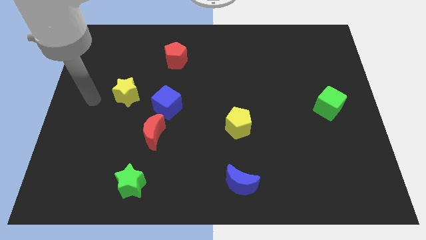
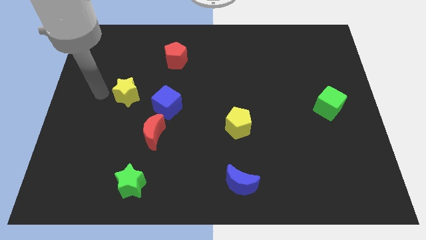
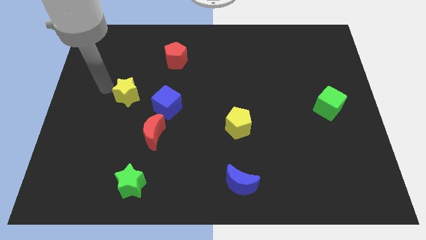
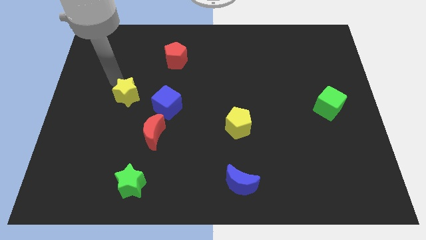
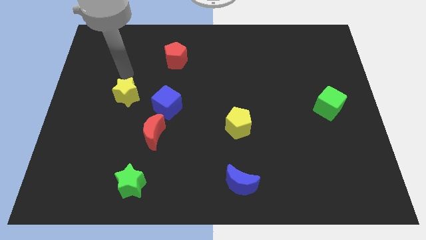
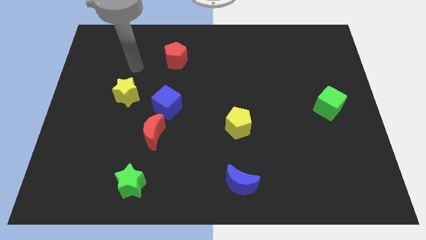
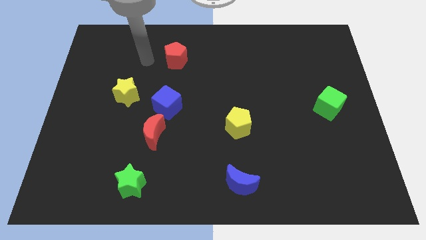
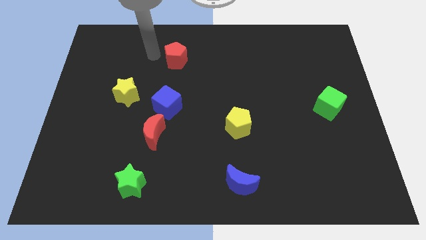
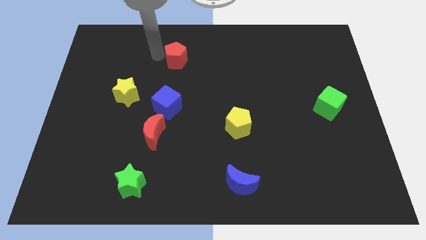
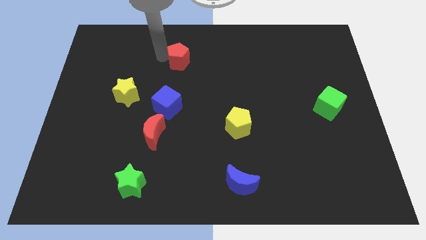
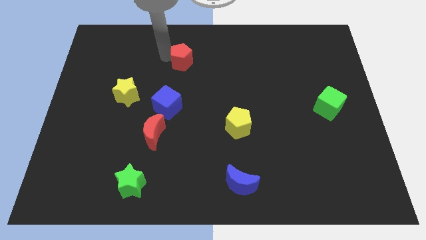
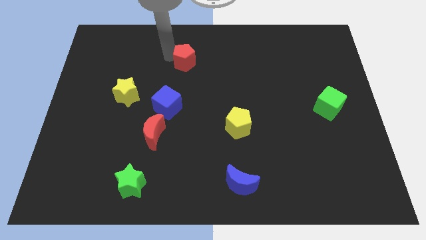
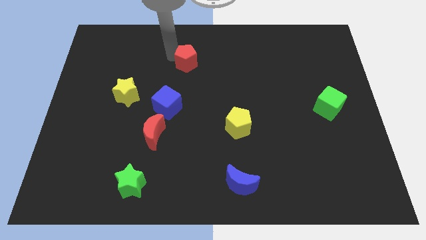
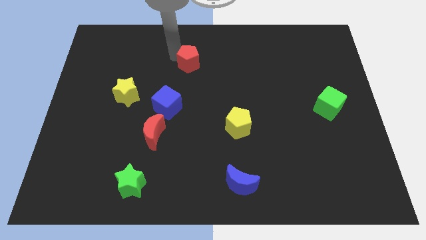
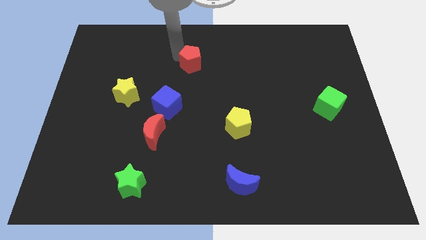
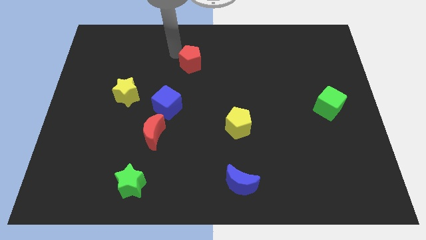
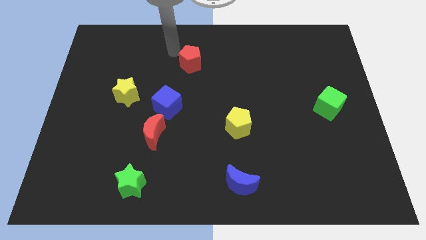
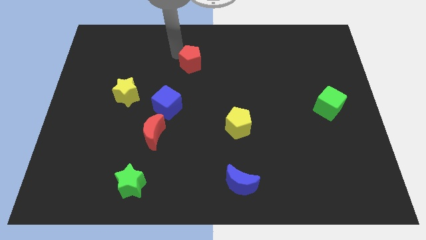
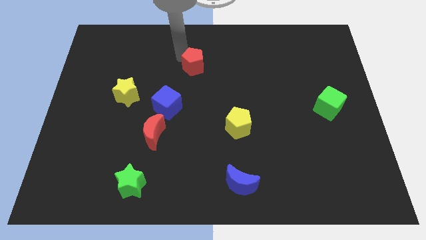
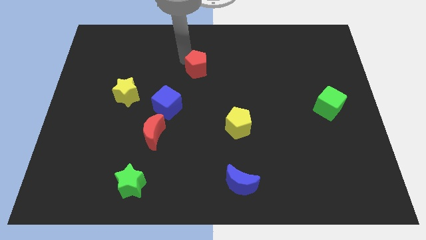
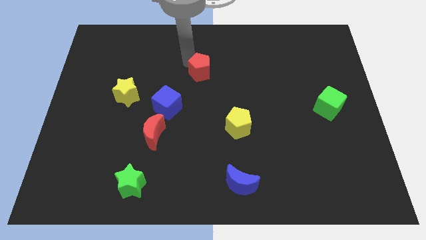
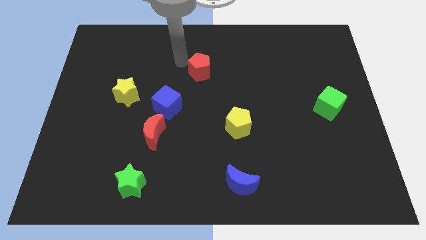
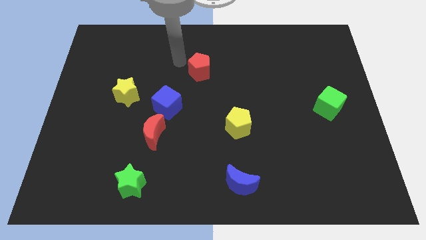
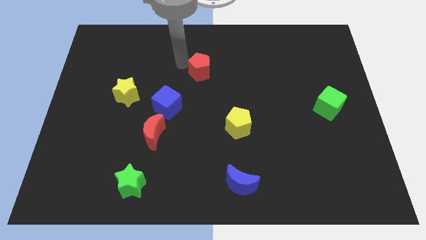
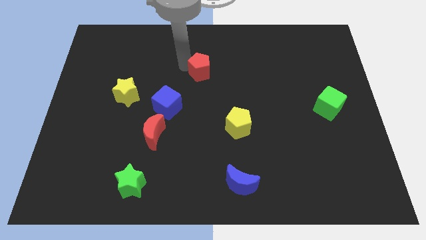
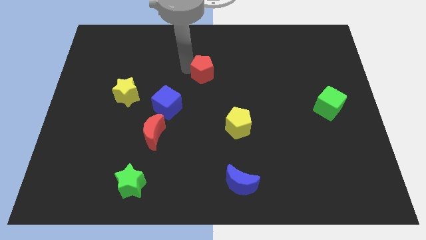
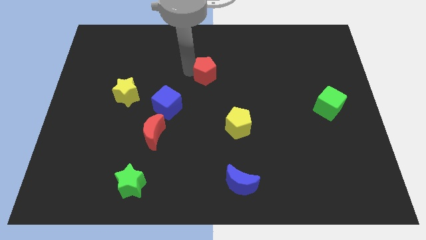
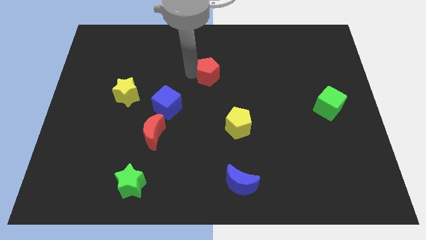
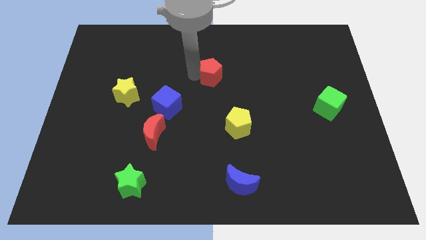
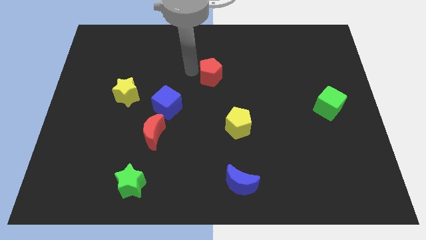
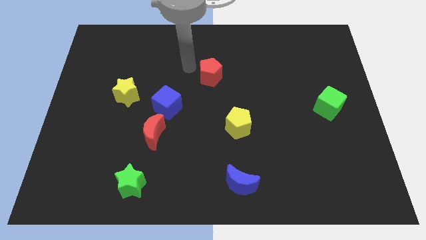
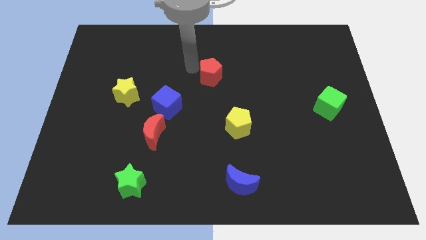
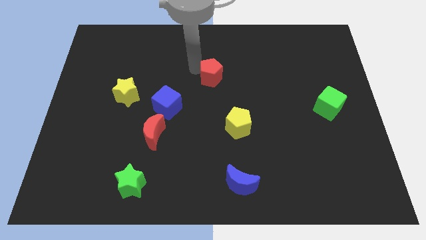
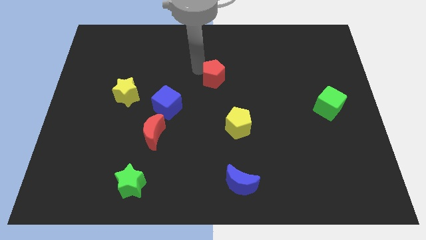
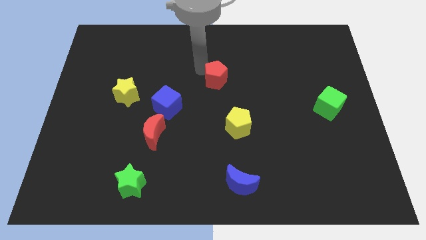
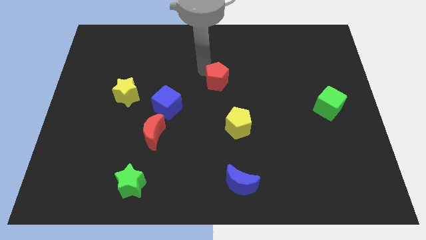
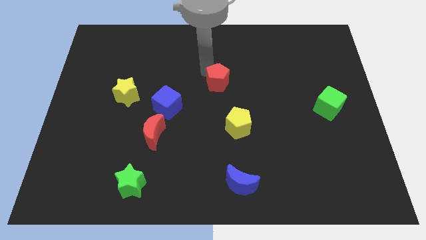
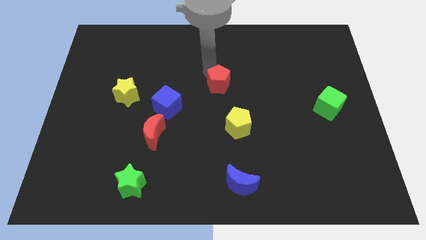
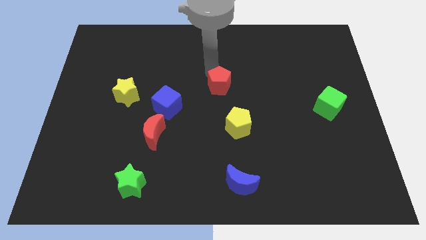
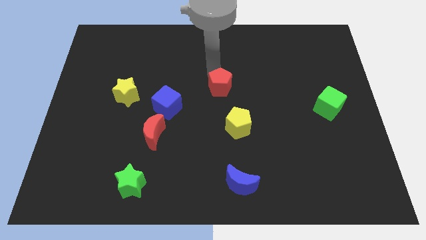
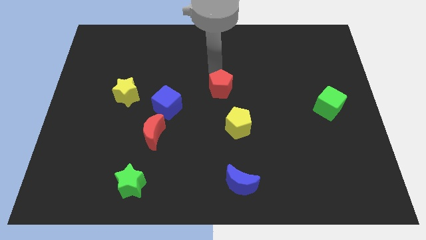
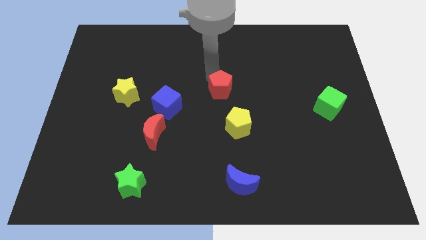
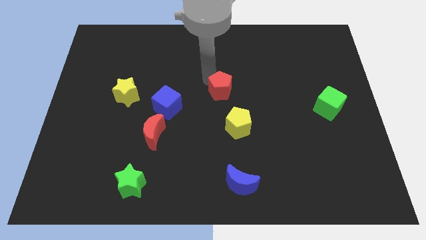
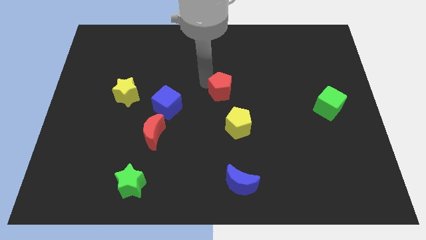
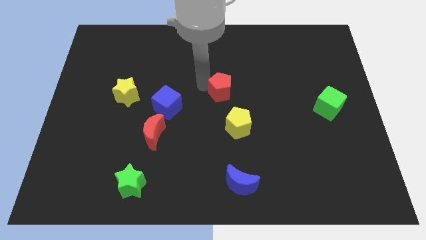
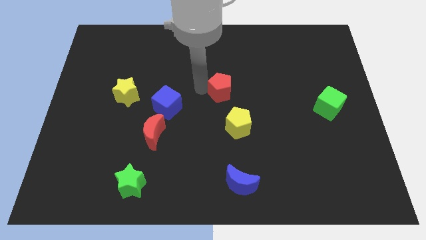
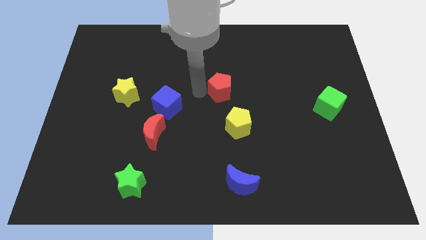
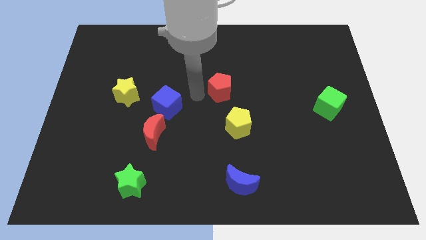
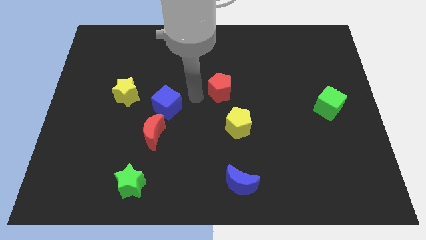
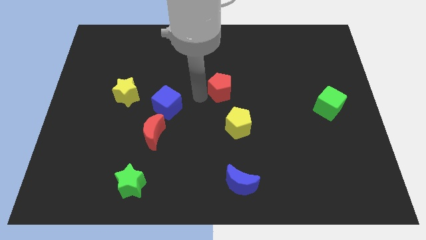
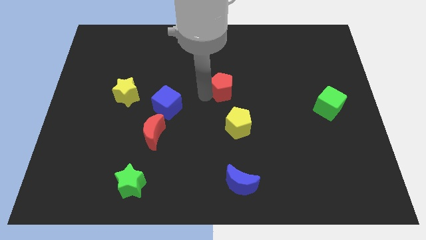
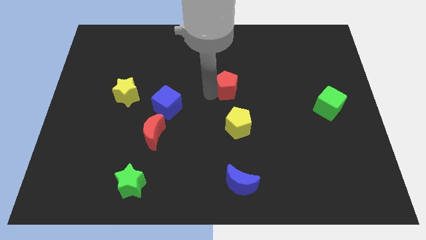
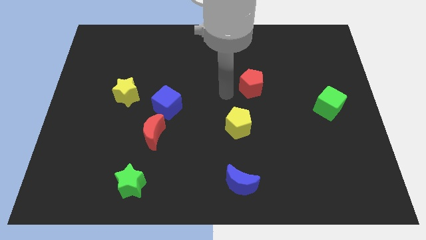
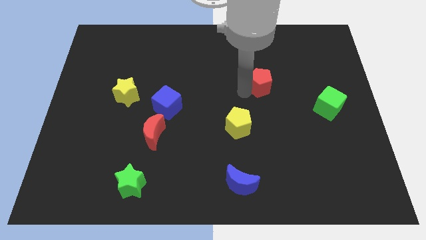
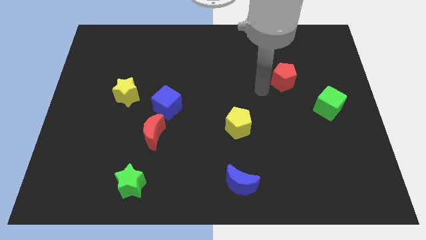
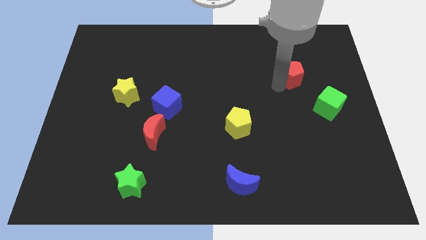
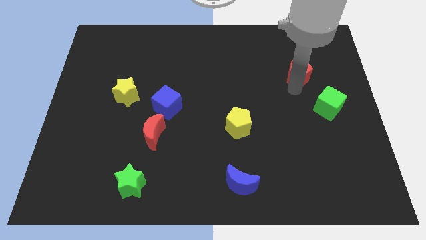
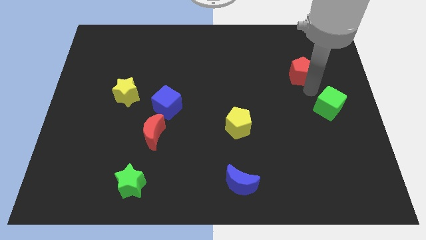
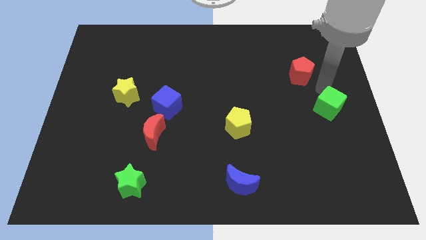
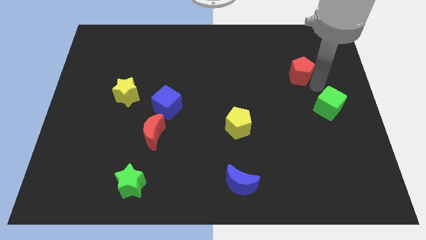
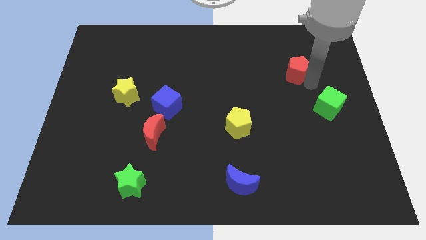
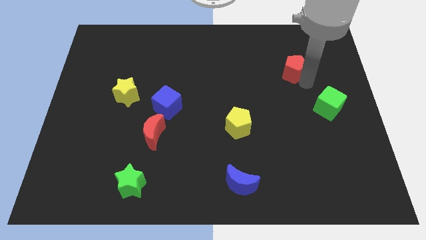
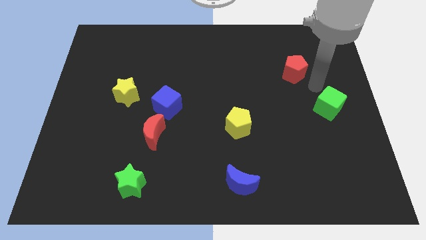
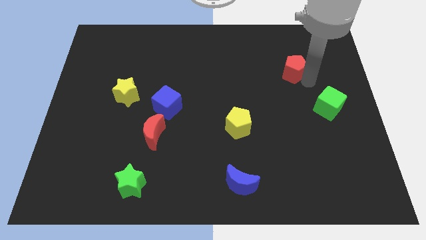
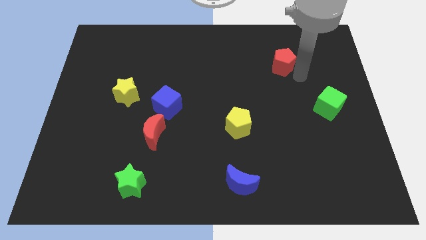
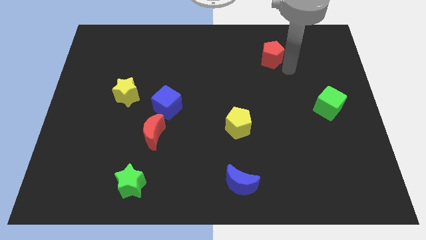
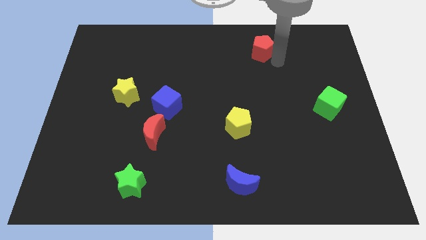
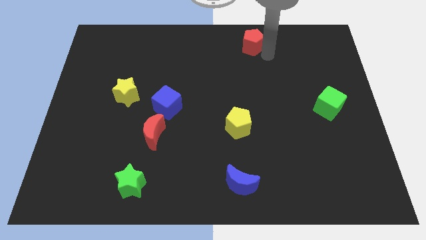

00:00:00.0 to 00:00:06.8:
move the red pentagon to the towards your base

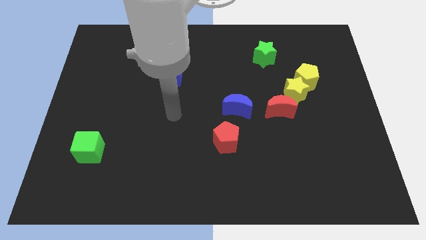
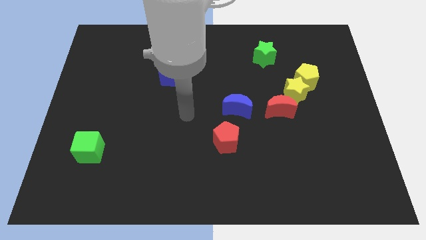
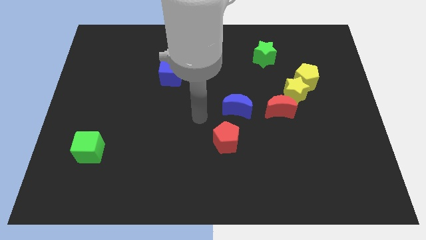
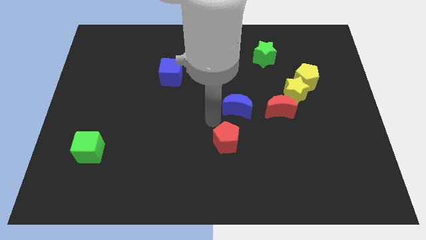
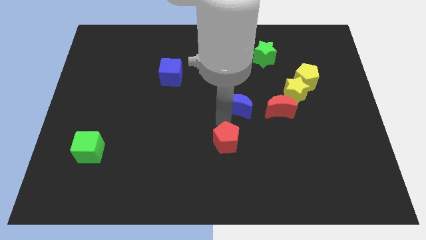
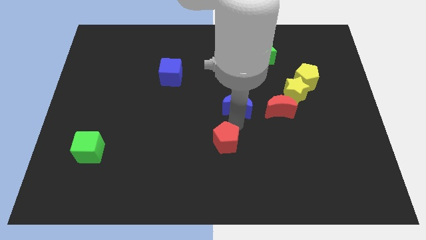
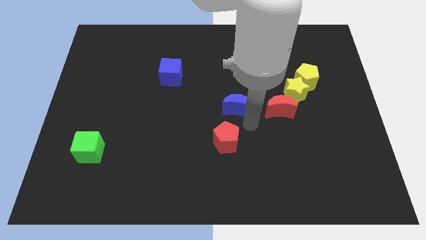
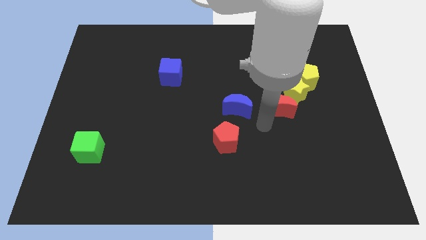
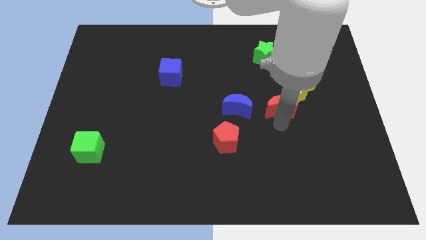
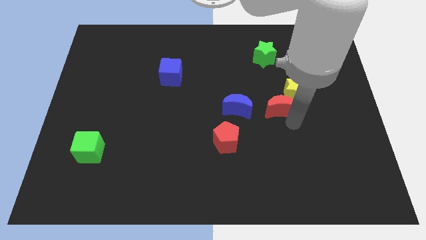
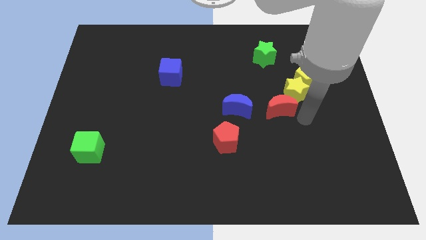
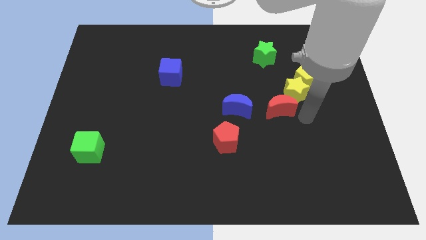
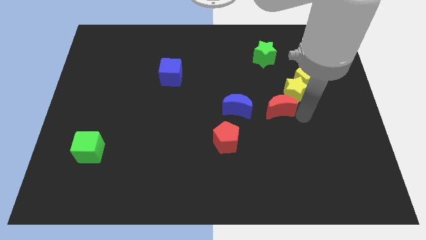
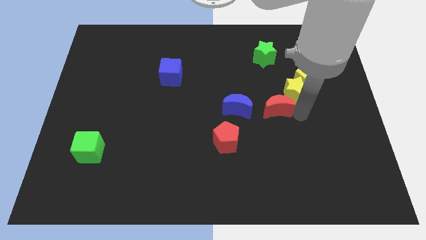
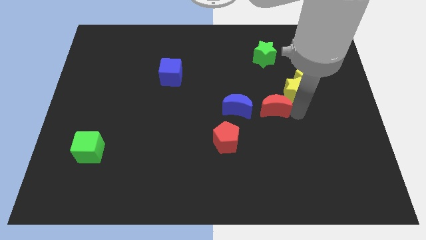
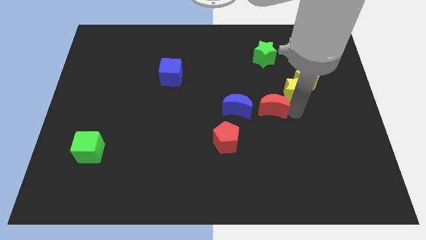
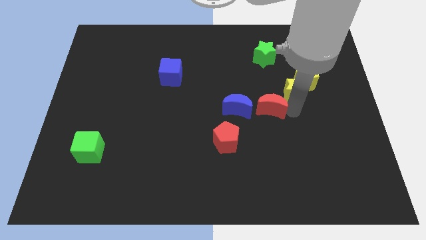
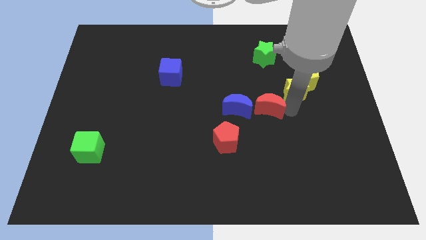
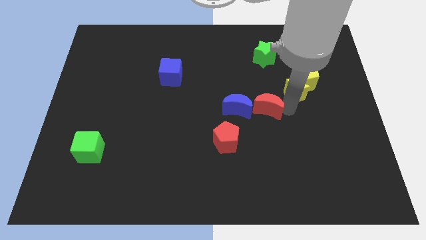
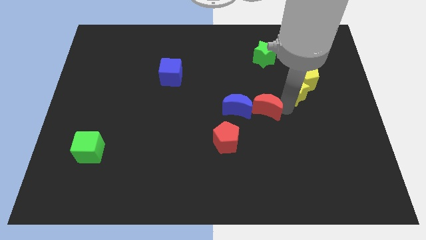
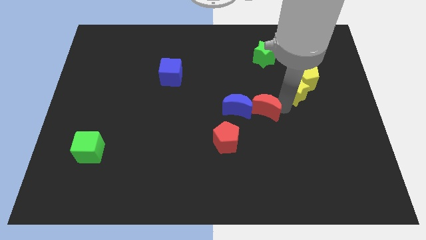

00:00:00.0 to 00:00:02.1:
slide the red moon to the center
